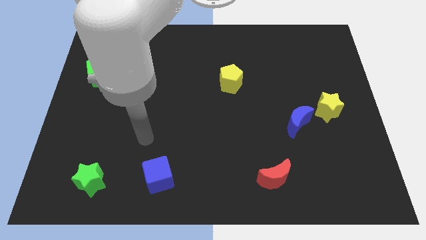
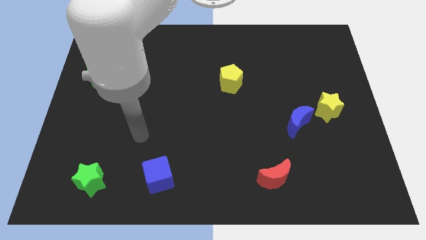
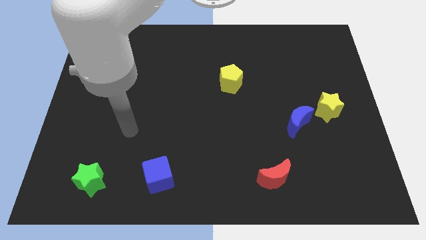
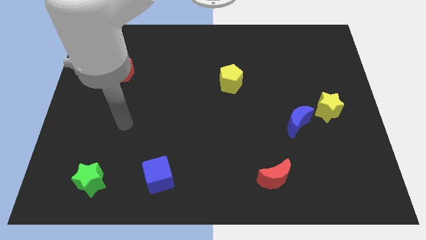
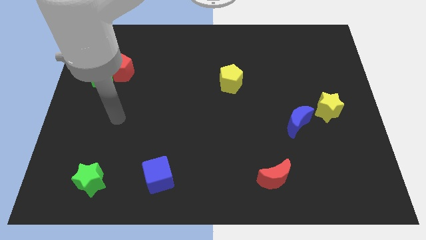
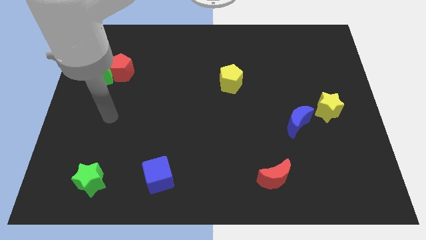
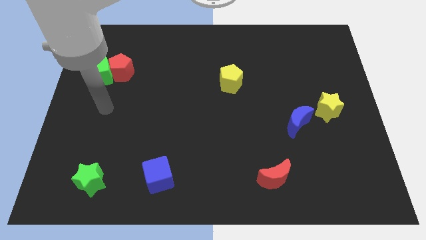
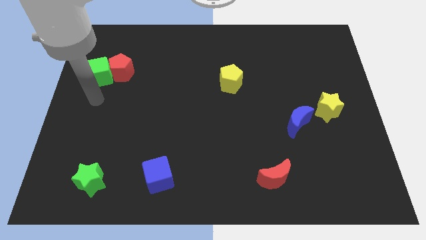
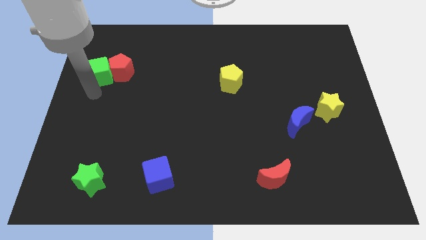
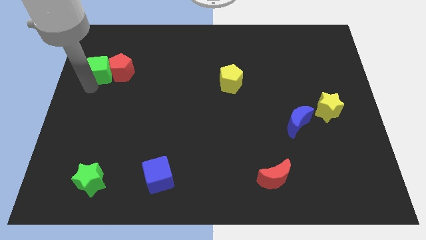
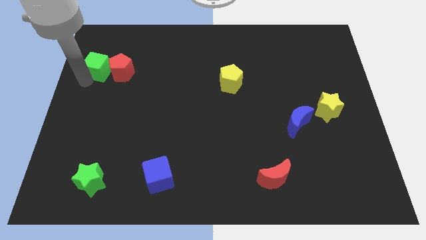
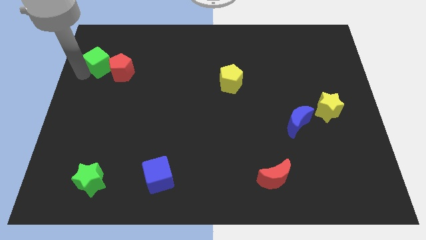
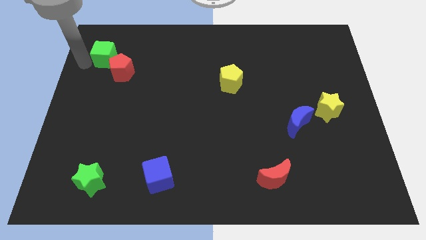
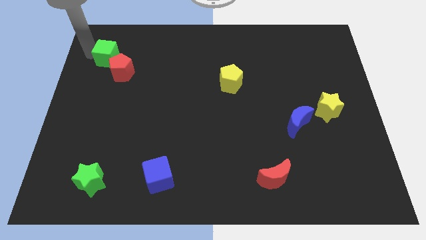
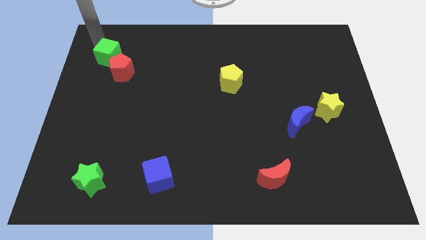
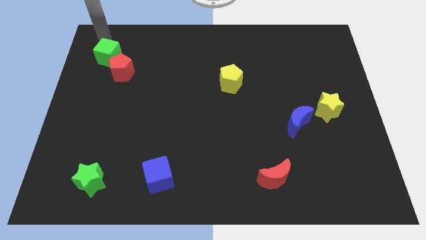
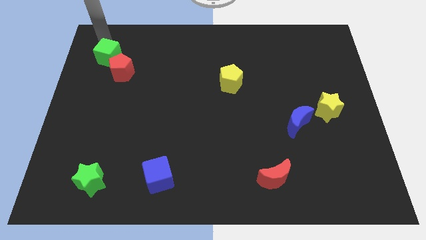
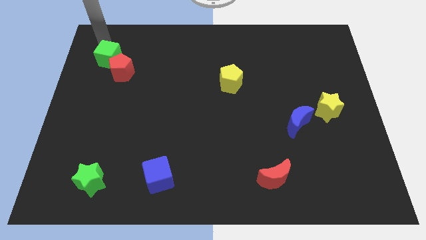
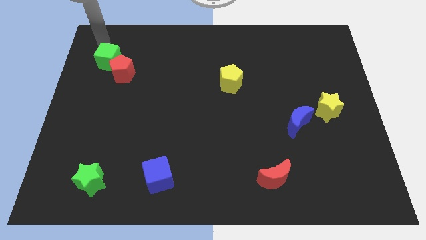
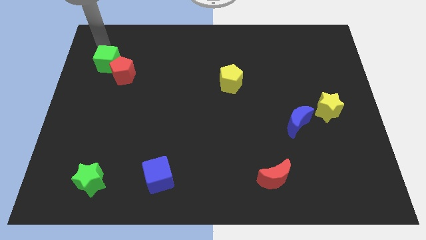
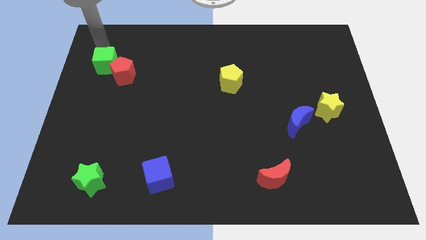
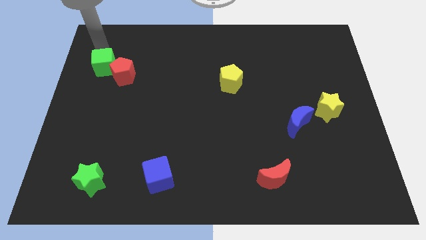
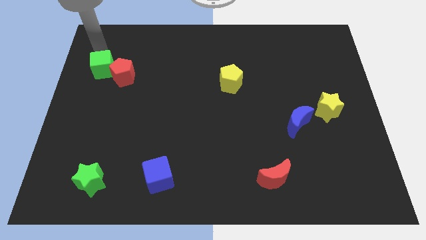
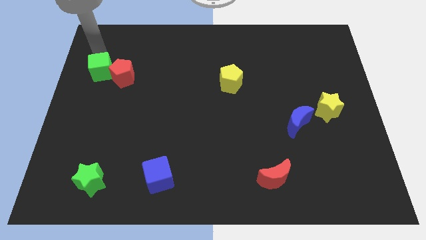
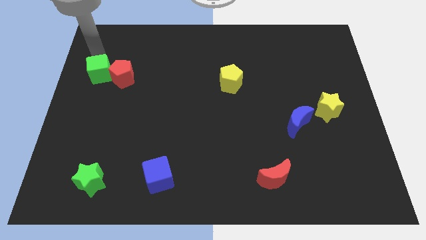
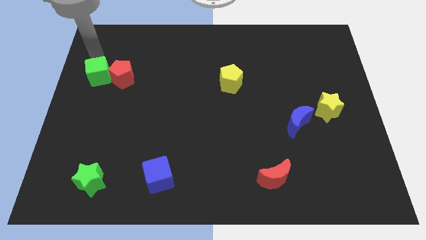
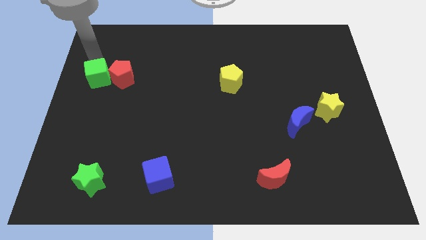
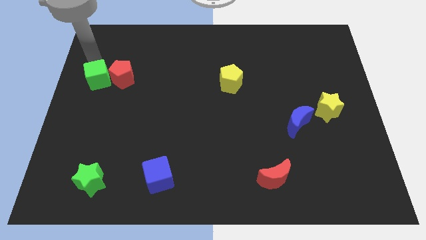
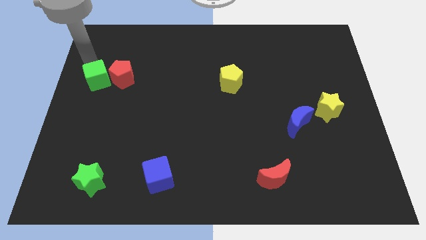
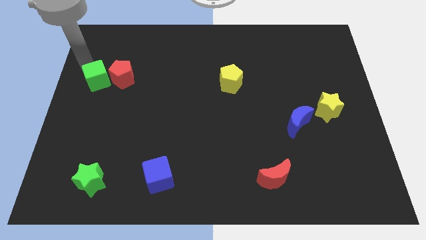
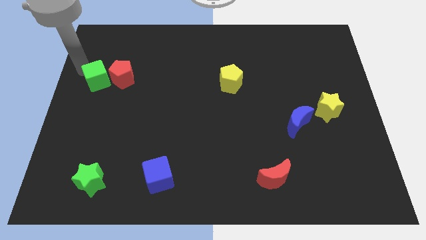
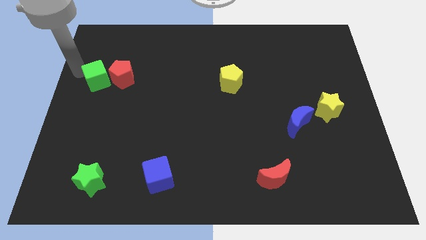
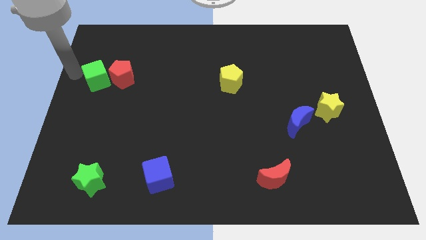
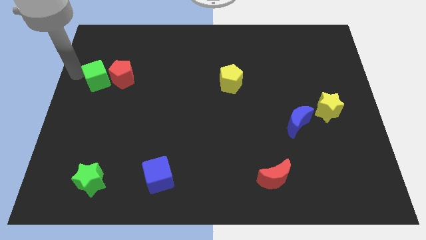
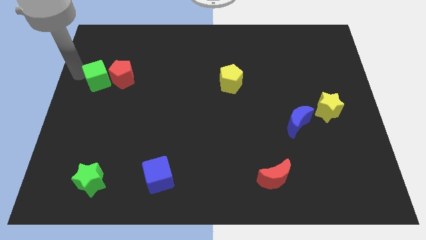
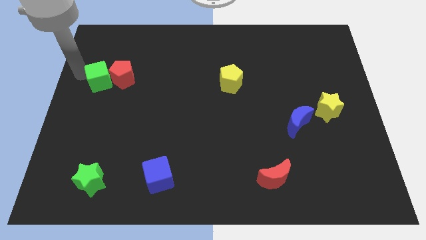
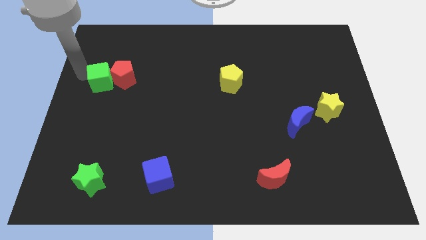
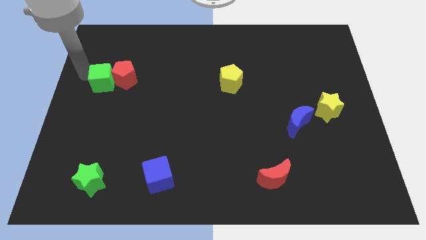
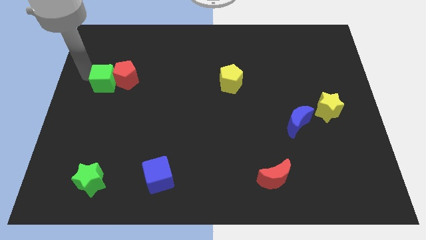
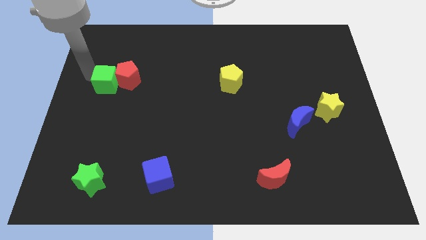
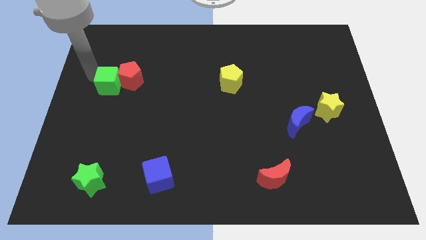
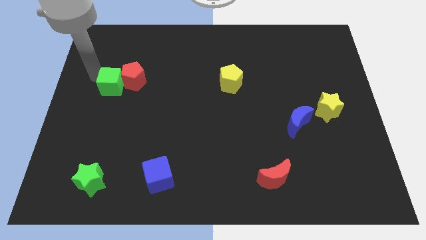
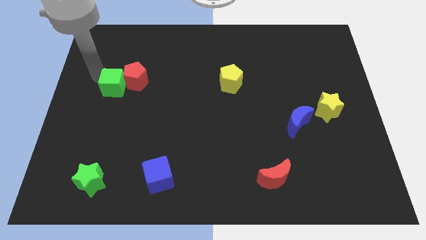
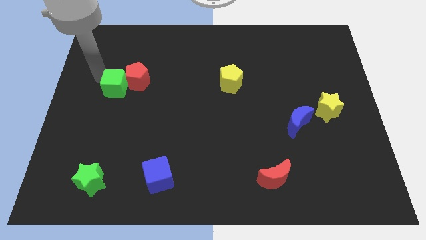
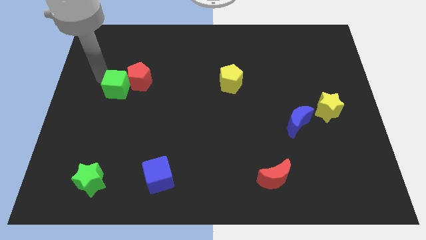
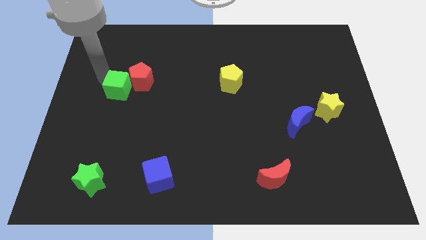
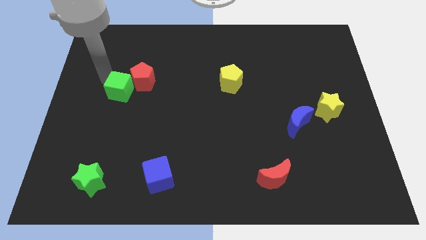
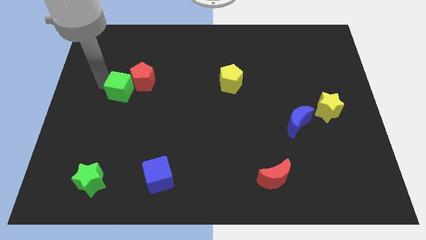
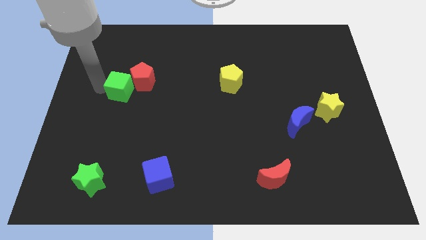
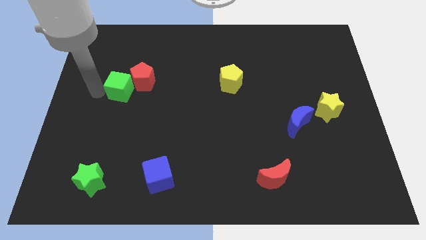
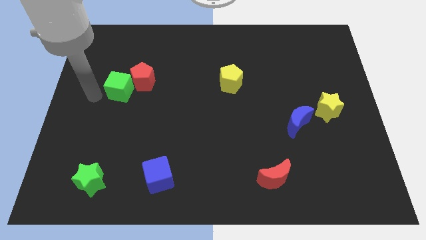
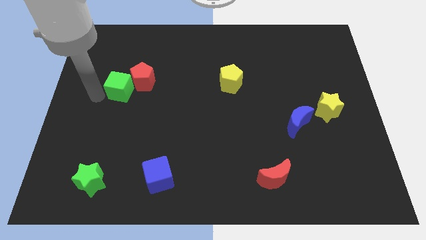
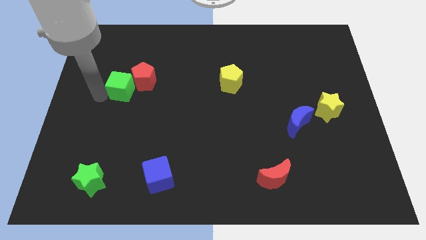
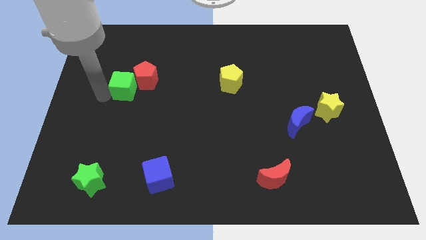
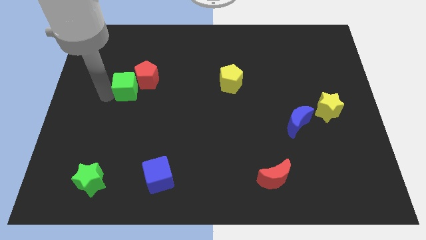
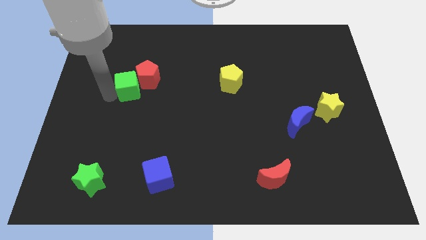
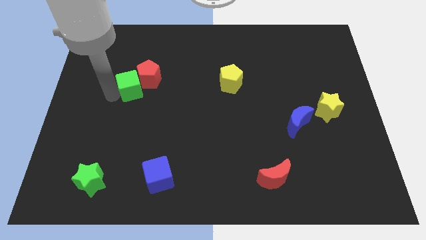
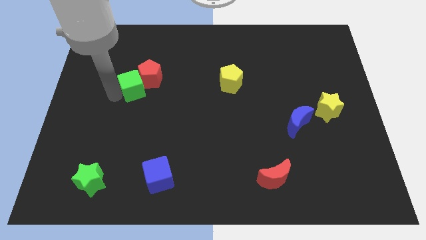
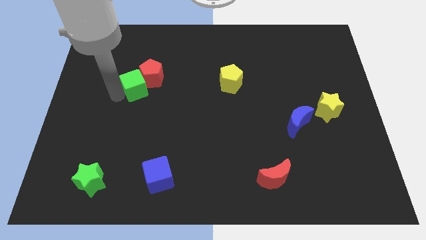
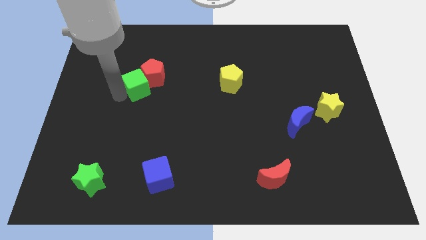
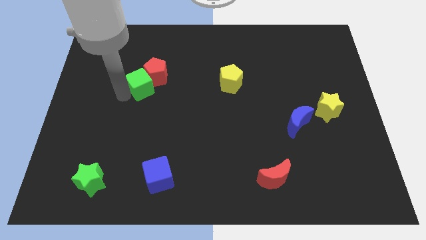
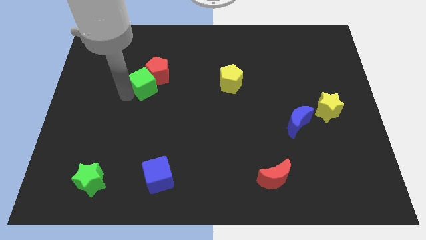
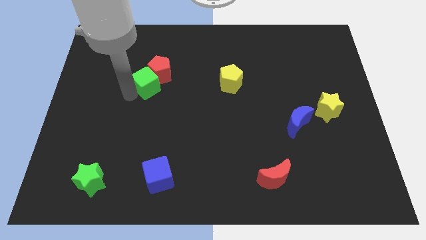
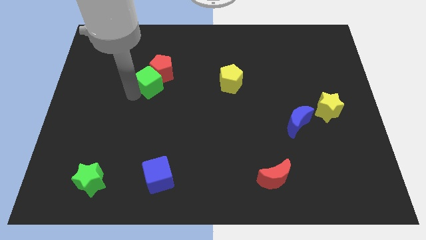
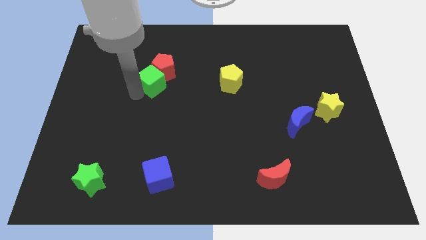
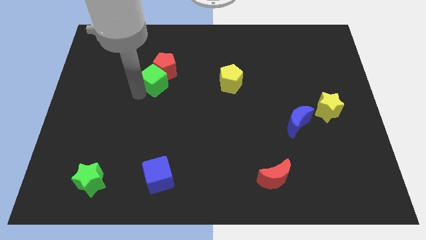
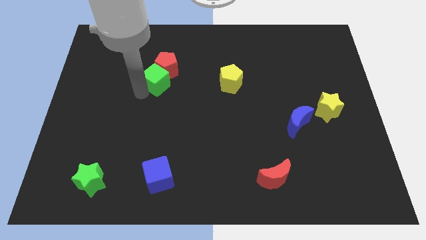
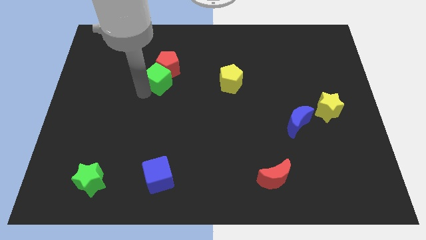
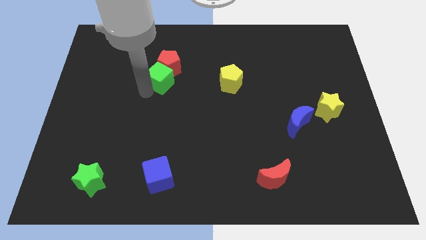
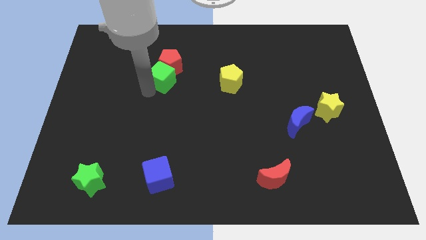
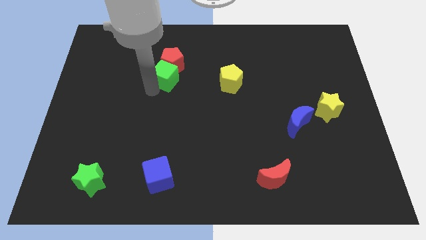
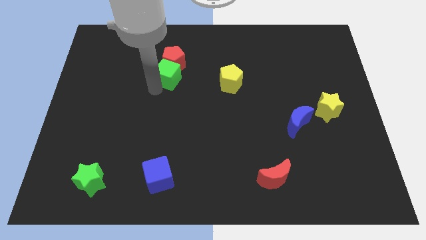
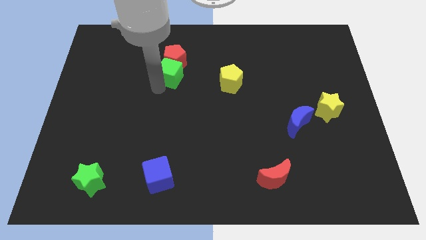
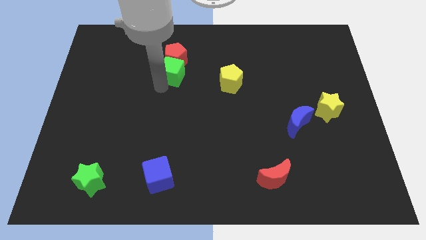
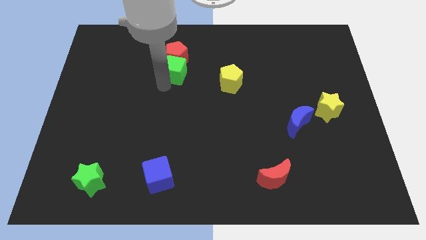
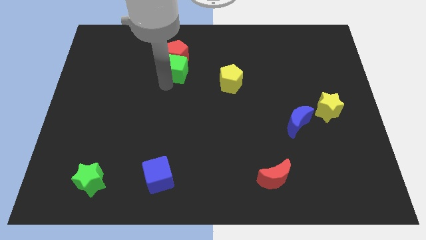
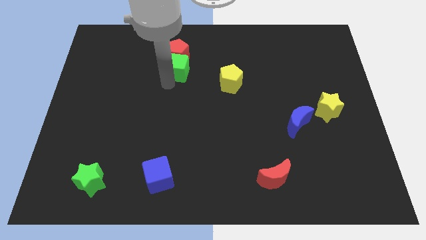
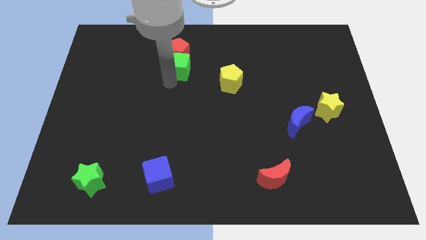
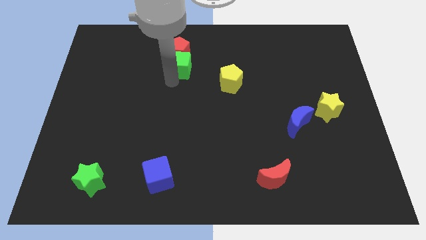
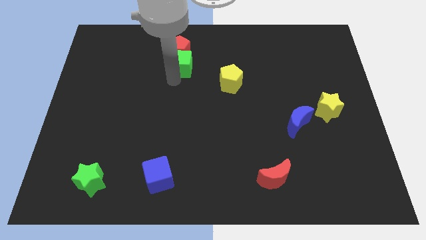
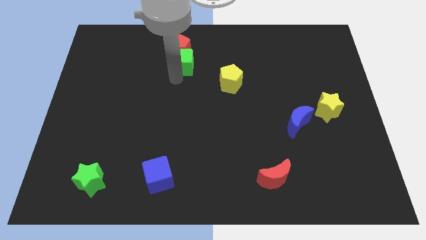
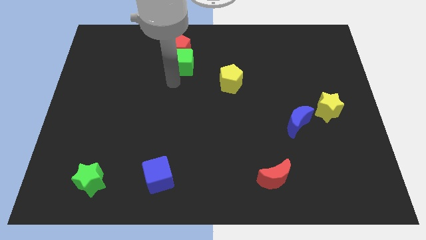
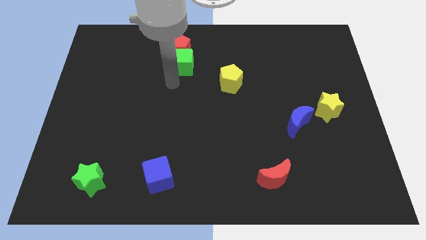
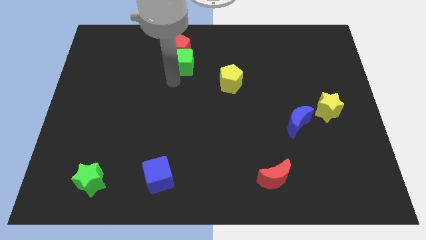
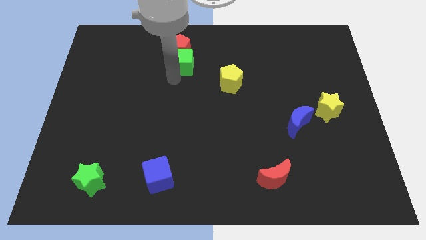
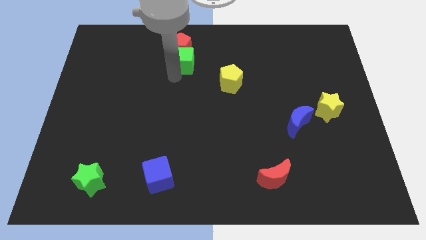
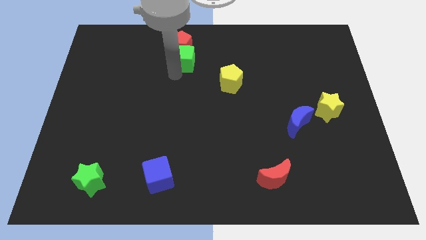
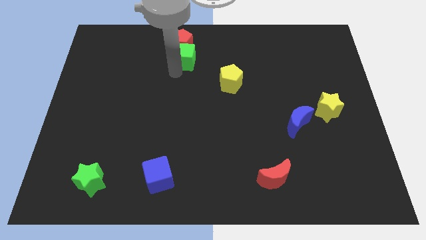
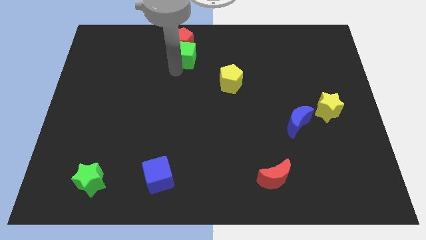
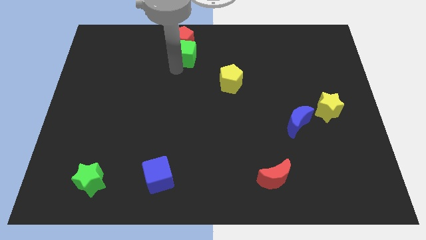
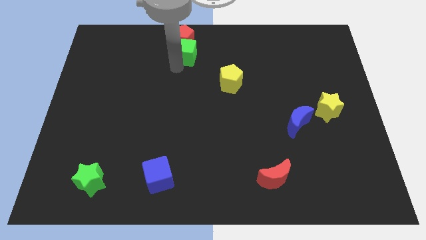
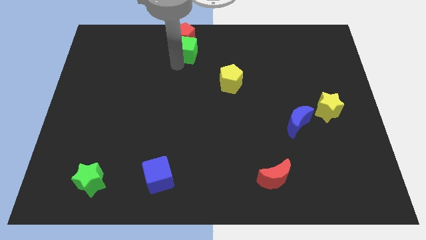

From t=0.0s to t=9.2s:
push the green cube to the towards your base
